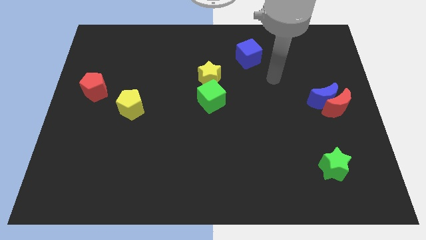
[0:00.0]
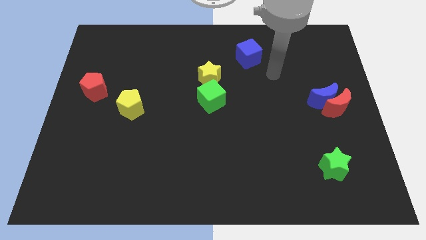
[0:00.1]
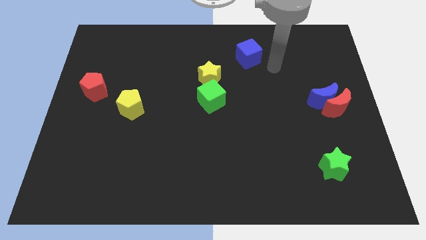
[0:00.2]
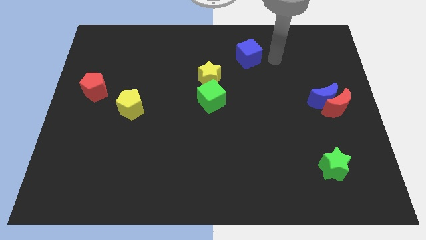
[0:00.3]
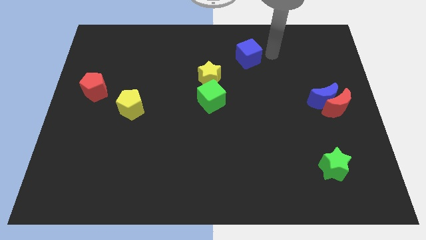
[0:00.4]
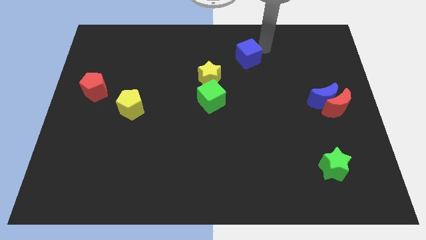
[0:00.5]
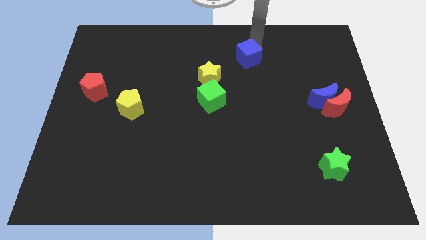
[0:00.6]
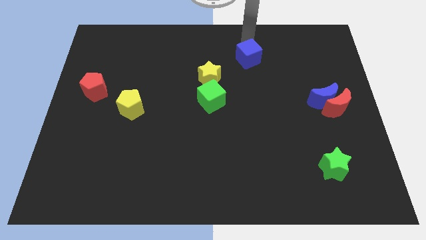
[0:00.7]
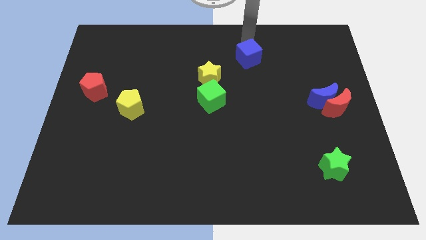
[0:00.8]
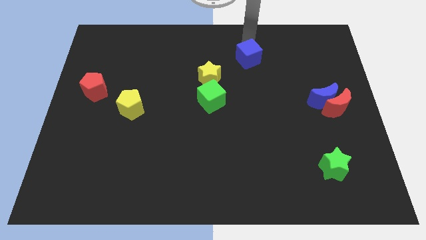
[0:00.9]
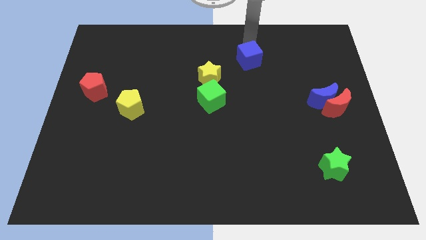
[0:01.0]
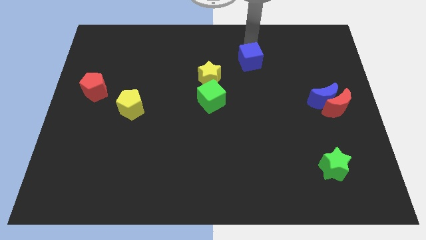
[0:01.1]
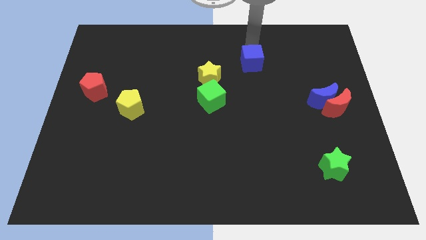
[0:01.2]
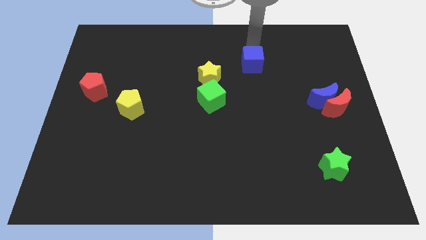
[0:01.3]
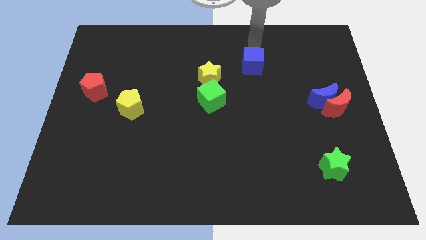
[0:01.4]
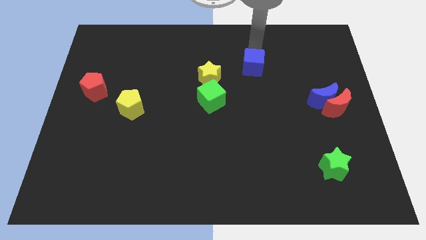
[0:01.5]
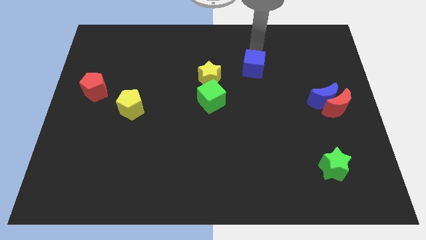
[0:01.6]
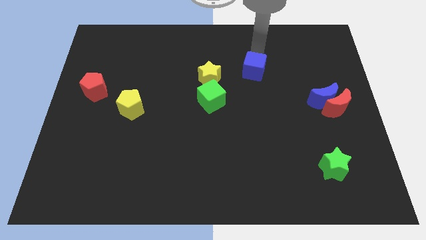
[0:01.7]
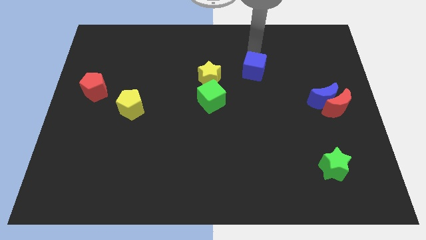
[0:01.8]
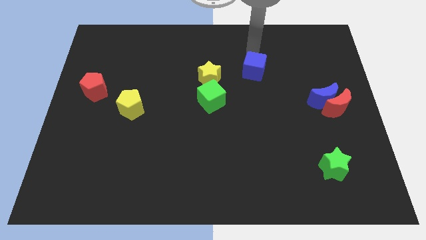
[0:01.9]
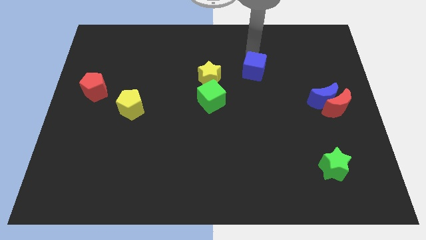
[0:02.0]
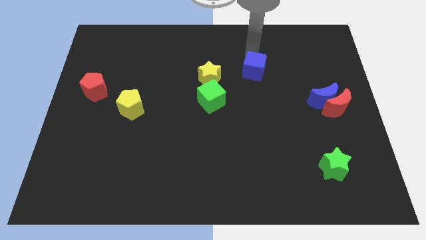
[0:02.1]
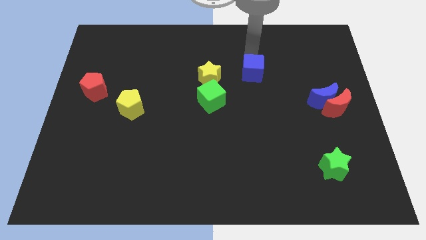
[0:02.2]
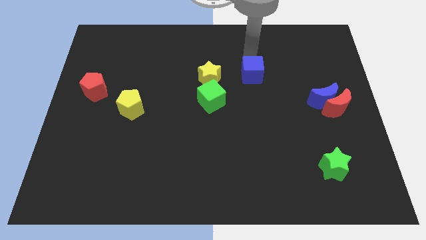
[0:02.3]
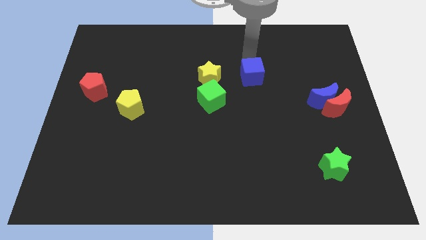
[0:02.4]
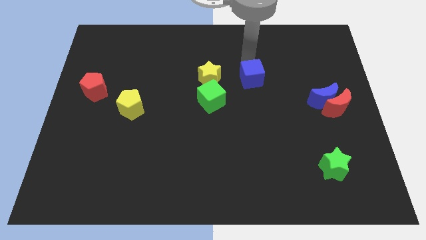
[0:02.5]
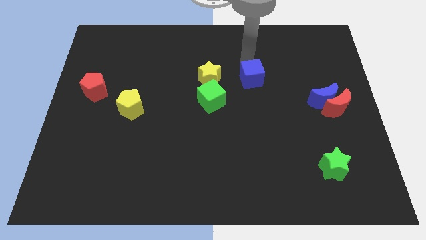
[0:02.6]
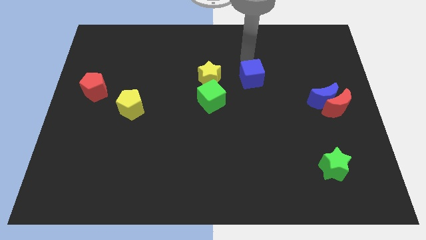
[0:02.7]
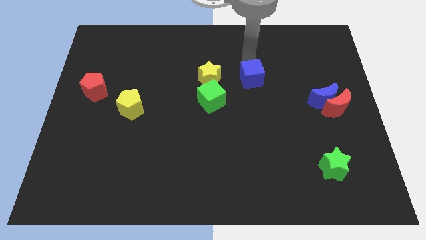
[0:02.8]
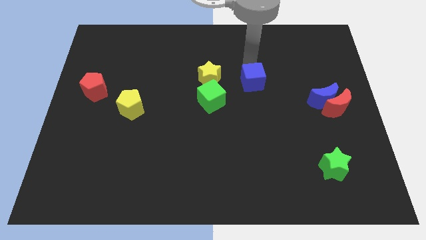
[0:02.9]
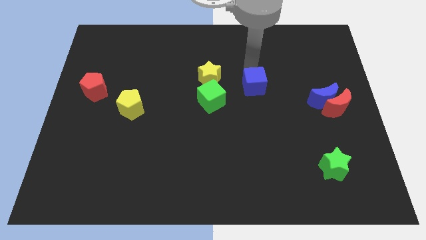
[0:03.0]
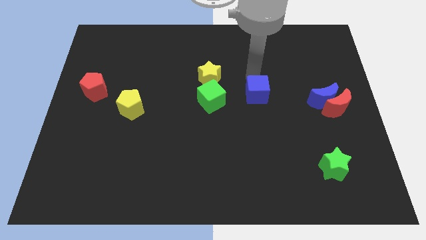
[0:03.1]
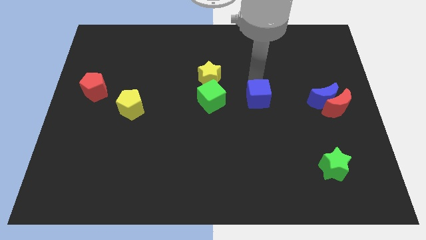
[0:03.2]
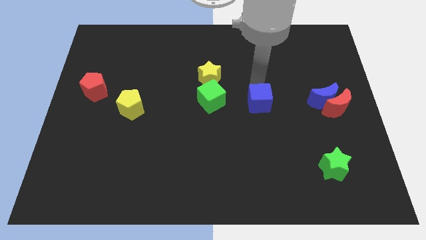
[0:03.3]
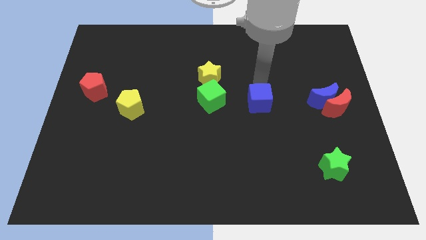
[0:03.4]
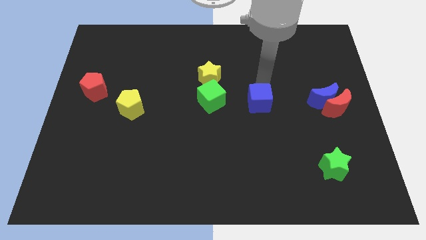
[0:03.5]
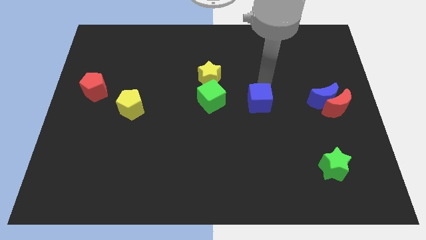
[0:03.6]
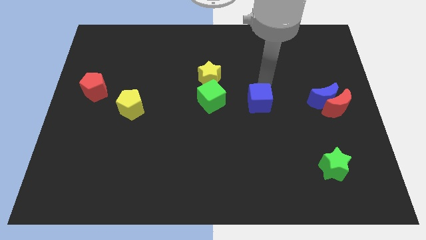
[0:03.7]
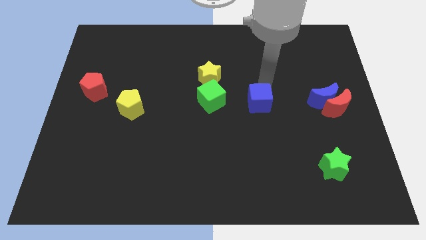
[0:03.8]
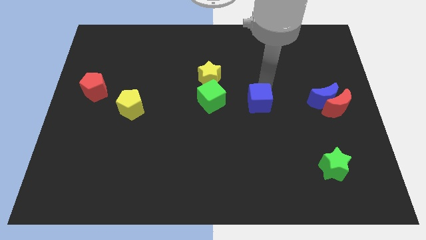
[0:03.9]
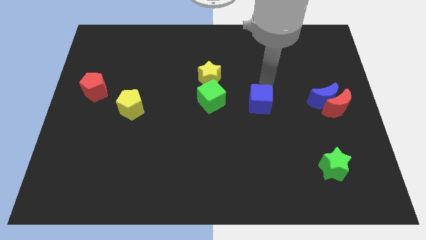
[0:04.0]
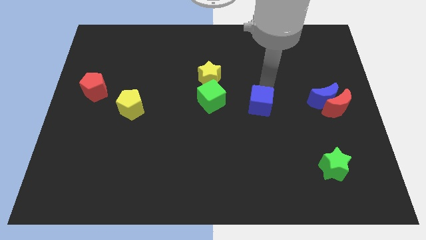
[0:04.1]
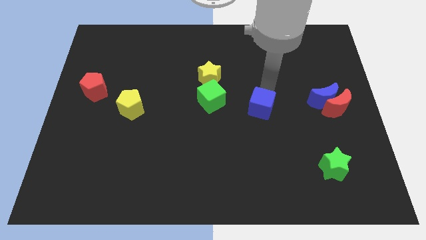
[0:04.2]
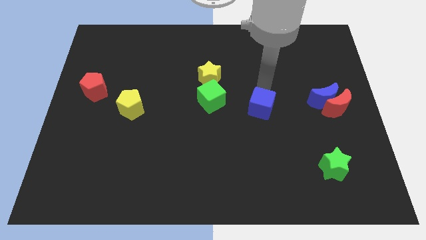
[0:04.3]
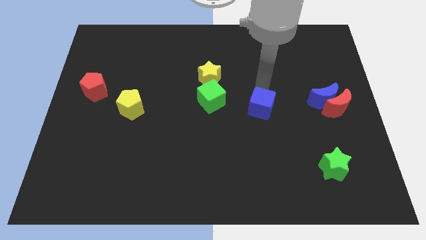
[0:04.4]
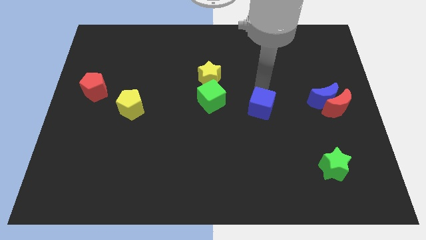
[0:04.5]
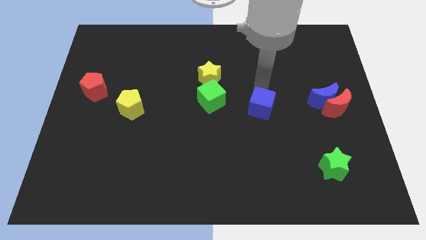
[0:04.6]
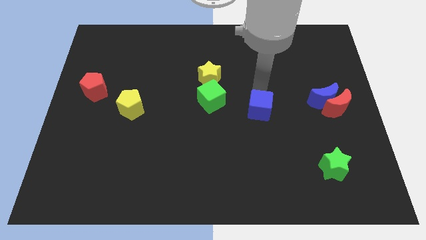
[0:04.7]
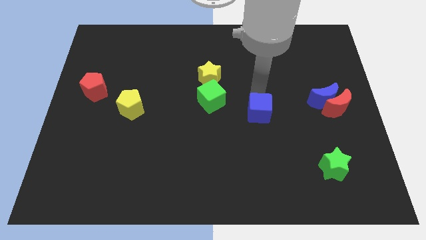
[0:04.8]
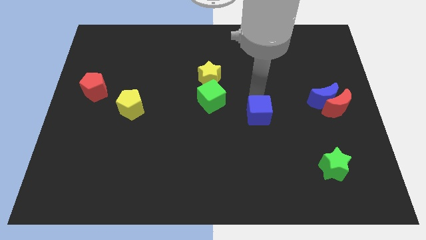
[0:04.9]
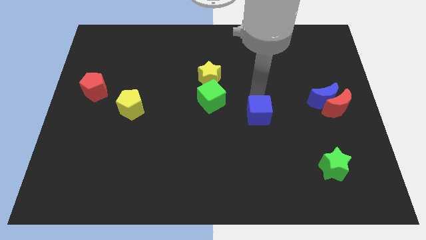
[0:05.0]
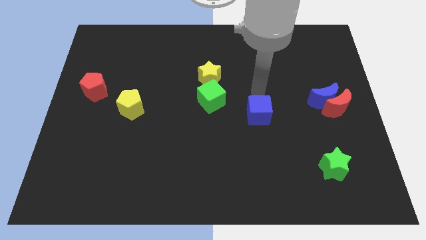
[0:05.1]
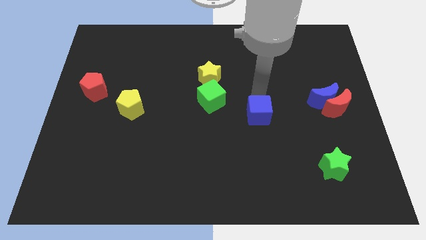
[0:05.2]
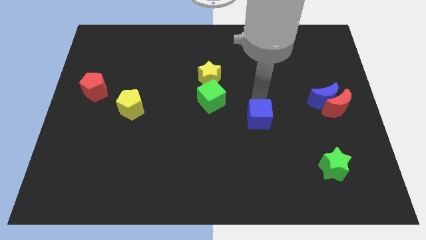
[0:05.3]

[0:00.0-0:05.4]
move the blue cube down

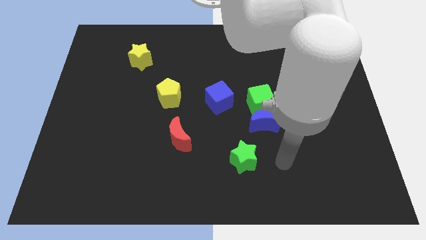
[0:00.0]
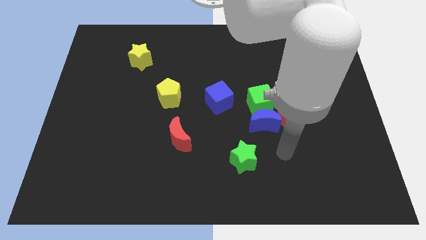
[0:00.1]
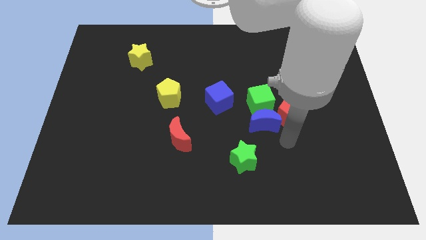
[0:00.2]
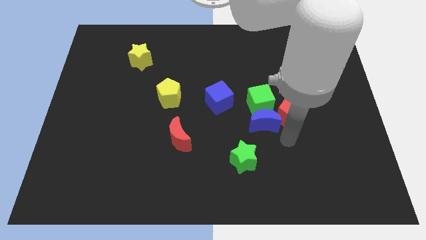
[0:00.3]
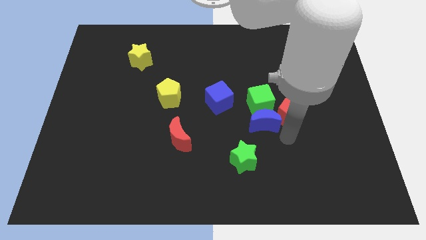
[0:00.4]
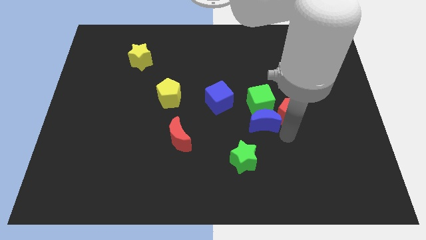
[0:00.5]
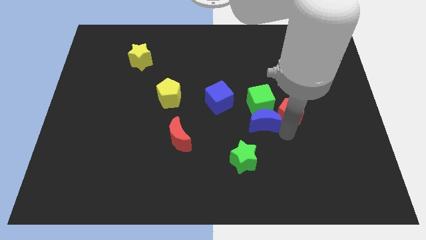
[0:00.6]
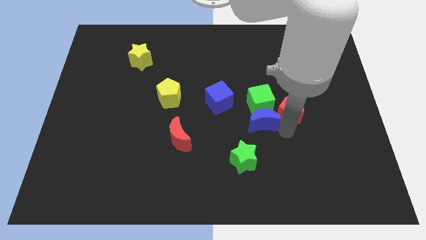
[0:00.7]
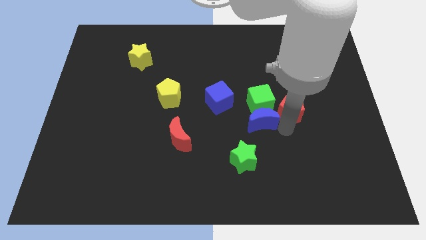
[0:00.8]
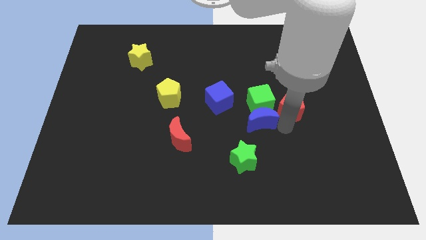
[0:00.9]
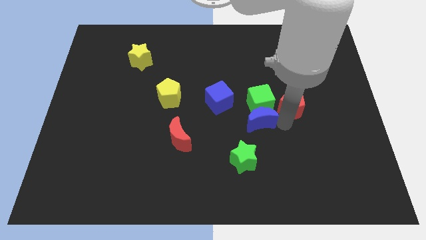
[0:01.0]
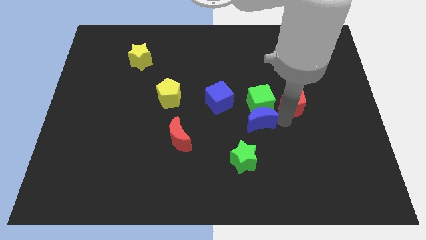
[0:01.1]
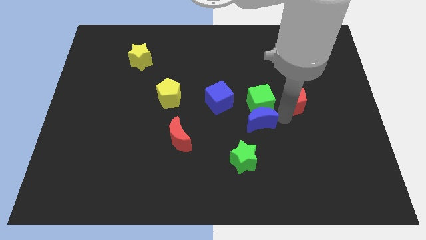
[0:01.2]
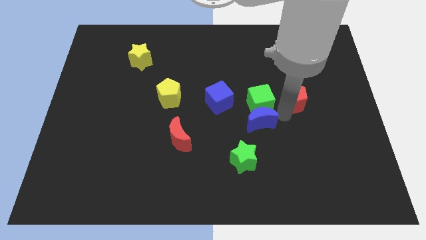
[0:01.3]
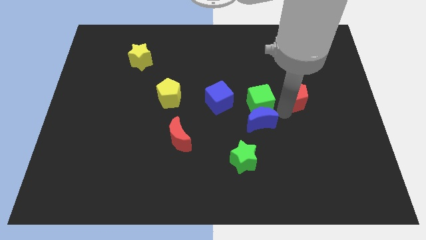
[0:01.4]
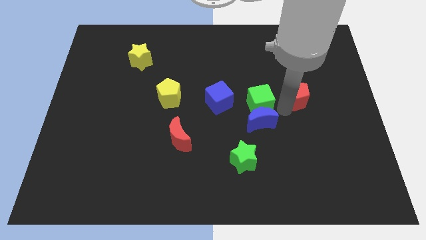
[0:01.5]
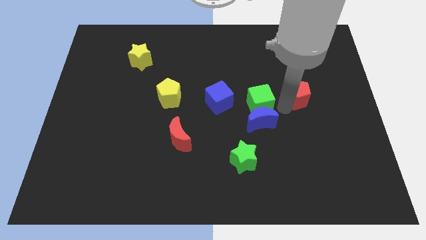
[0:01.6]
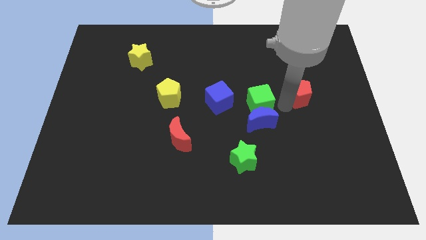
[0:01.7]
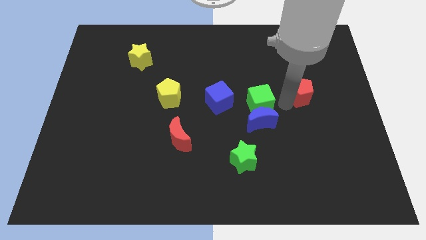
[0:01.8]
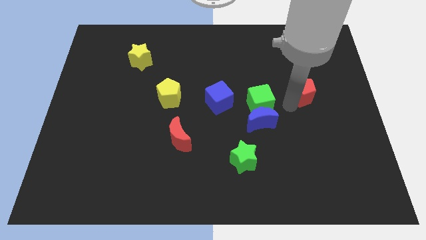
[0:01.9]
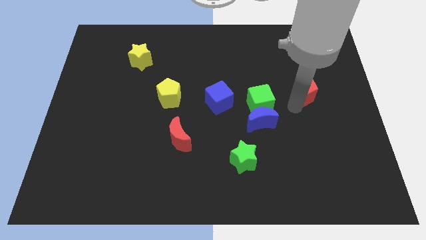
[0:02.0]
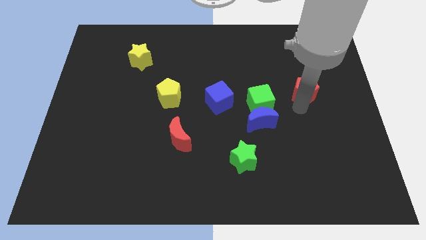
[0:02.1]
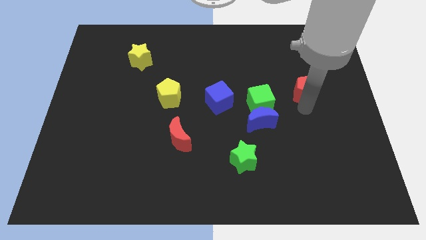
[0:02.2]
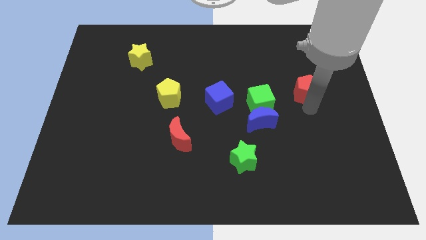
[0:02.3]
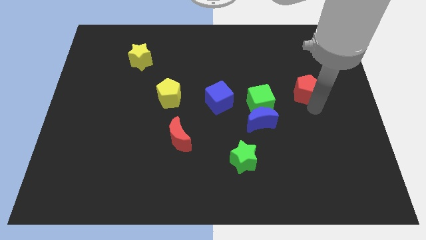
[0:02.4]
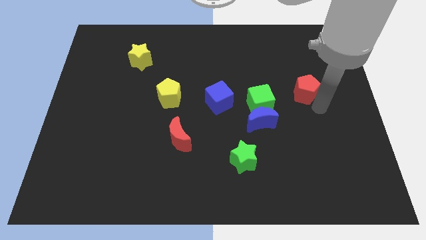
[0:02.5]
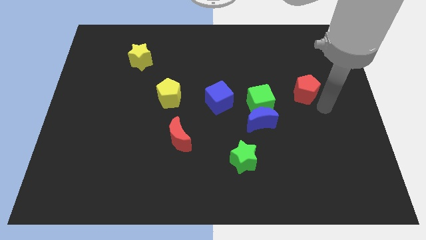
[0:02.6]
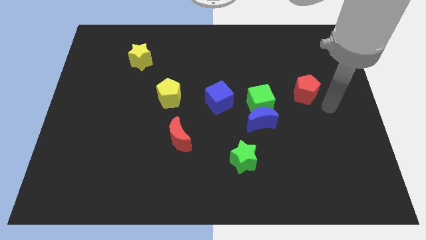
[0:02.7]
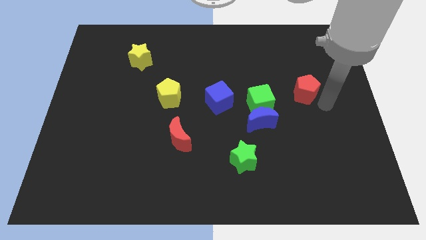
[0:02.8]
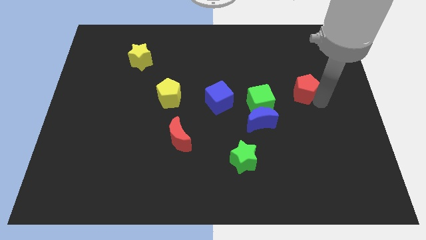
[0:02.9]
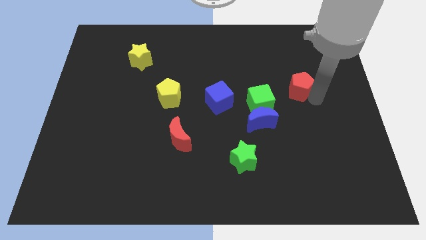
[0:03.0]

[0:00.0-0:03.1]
push the red pentagon a little bit up
